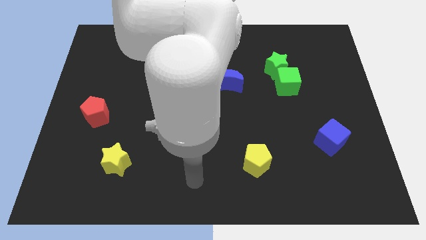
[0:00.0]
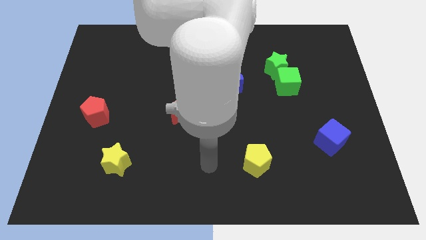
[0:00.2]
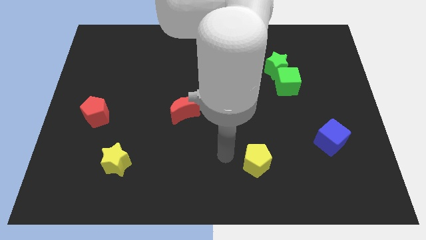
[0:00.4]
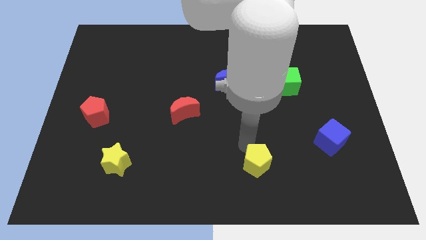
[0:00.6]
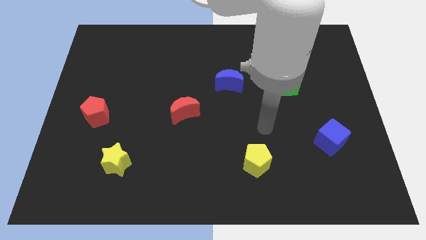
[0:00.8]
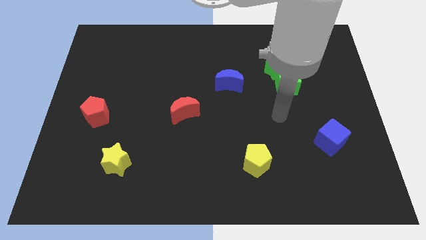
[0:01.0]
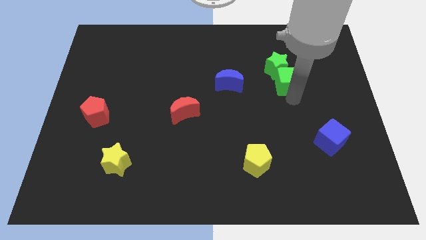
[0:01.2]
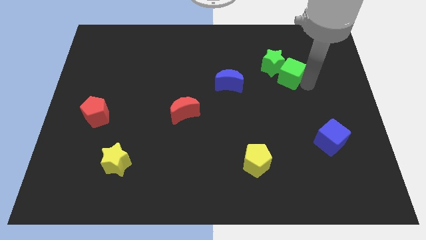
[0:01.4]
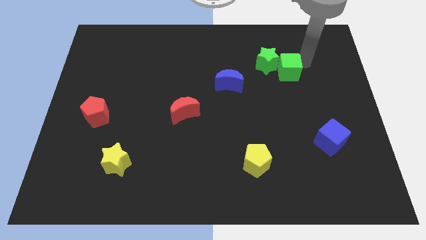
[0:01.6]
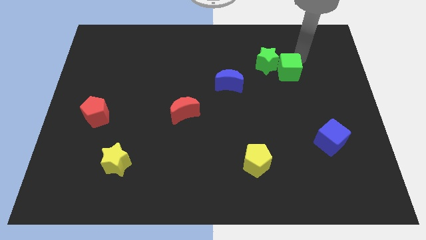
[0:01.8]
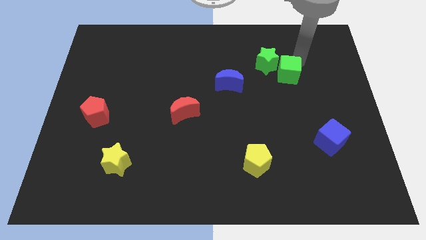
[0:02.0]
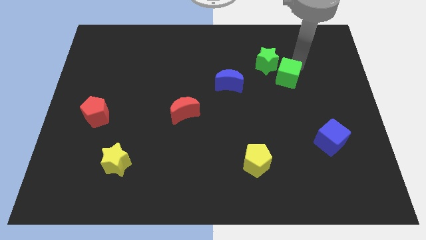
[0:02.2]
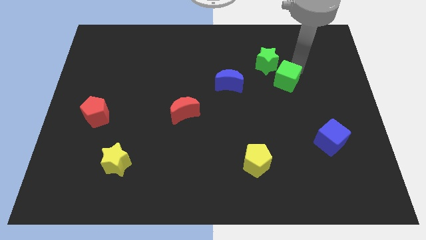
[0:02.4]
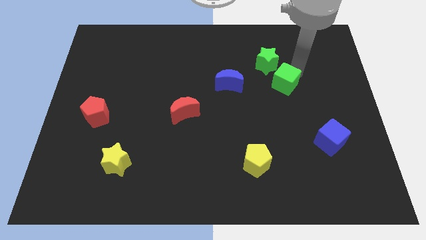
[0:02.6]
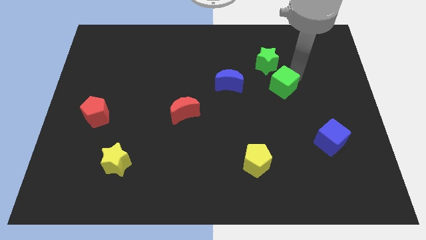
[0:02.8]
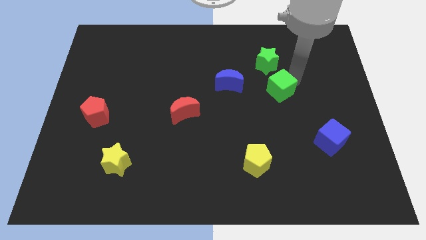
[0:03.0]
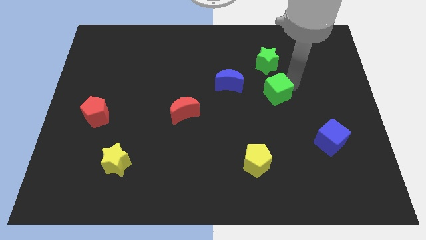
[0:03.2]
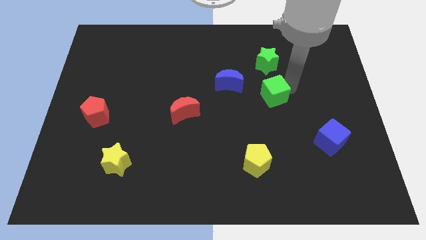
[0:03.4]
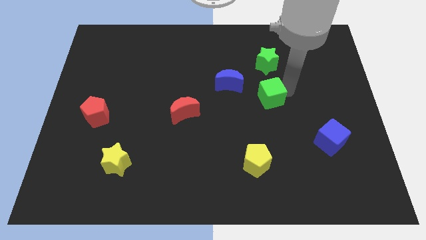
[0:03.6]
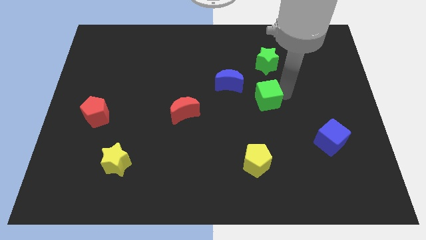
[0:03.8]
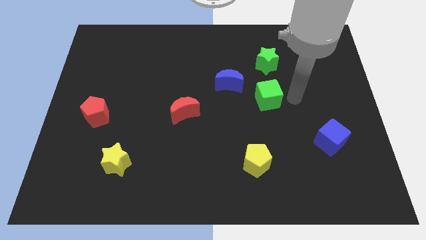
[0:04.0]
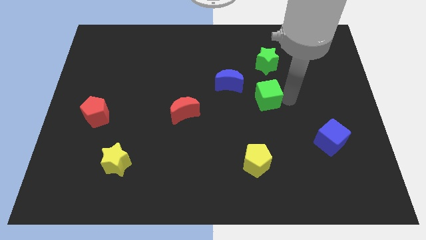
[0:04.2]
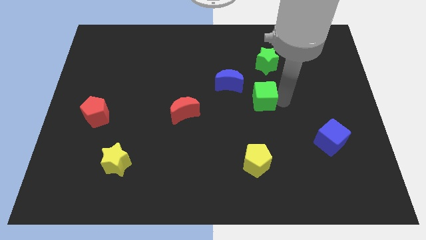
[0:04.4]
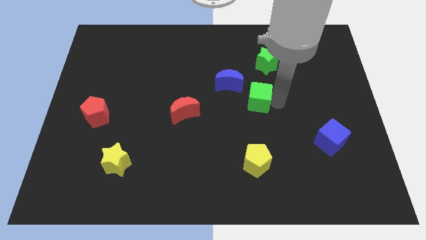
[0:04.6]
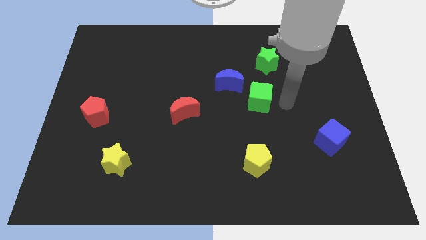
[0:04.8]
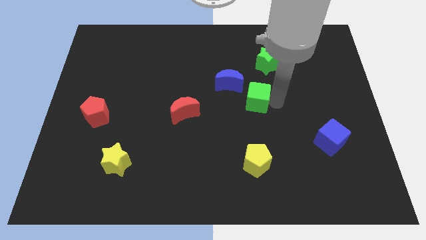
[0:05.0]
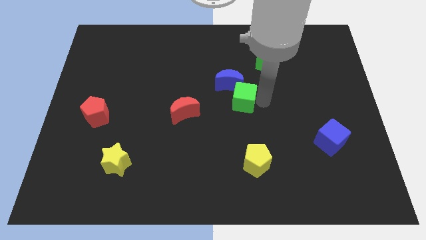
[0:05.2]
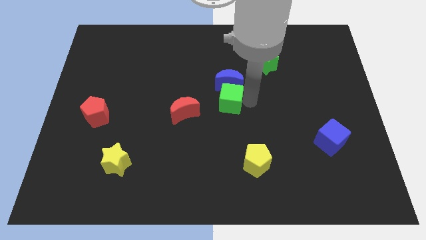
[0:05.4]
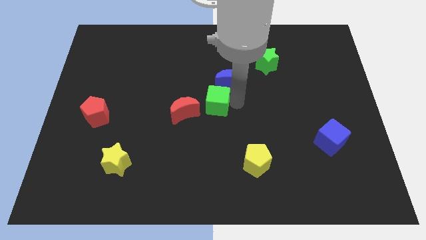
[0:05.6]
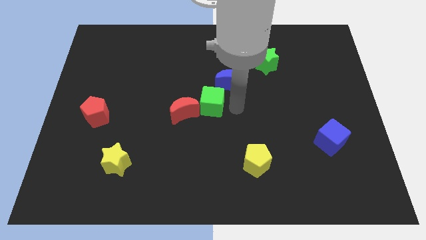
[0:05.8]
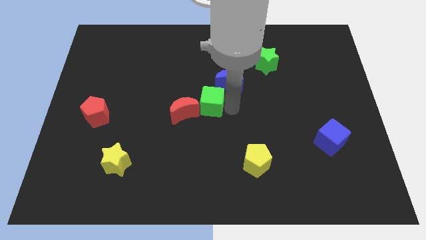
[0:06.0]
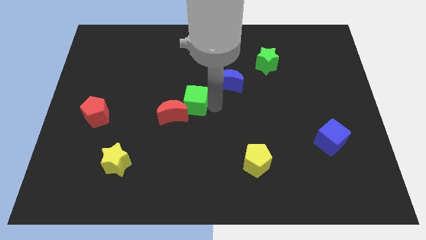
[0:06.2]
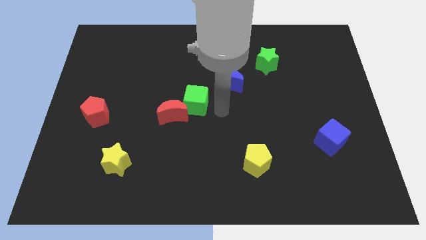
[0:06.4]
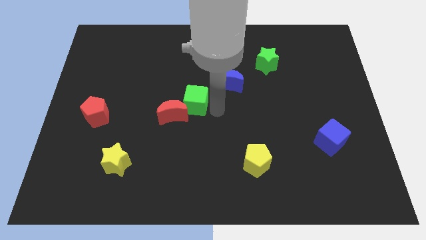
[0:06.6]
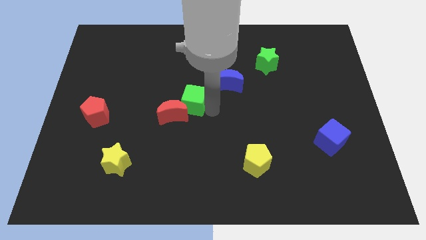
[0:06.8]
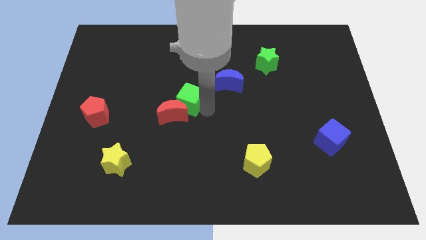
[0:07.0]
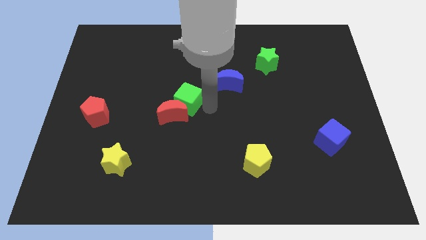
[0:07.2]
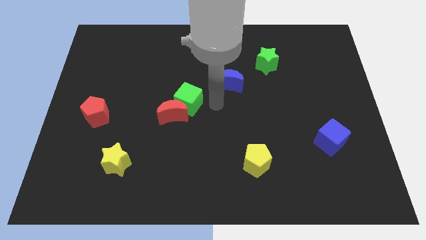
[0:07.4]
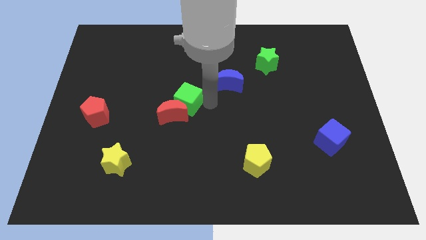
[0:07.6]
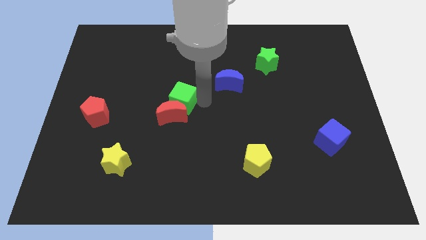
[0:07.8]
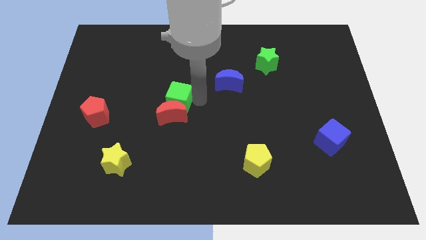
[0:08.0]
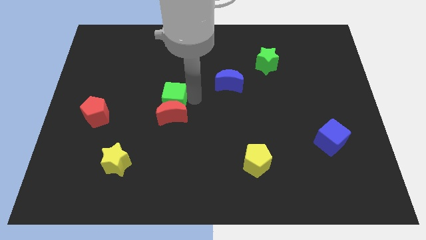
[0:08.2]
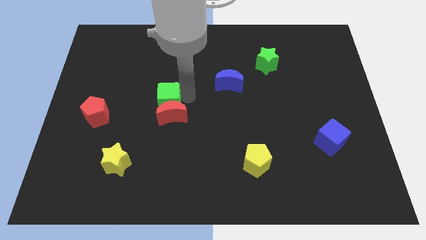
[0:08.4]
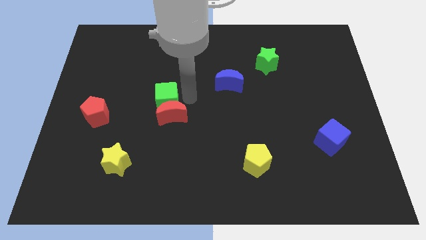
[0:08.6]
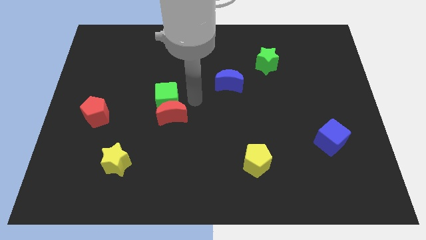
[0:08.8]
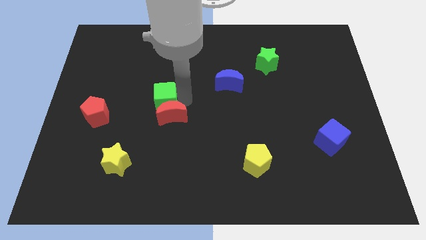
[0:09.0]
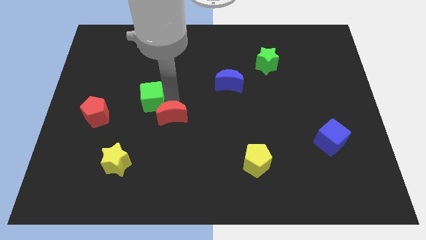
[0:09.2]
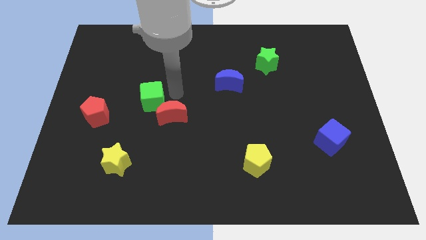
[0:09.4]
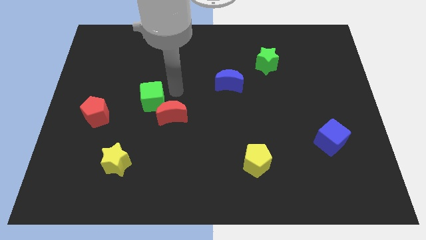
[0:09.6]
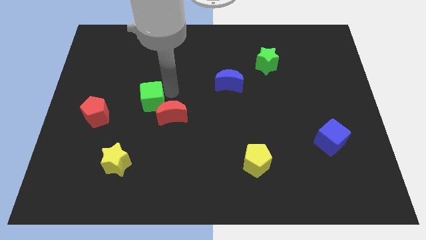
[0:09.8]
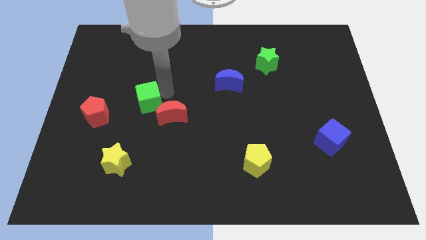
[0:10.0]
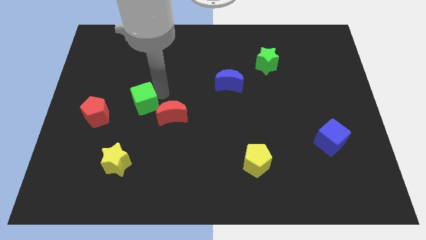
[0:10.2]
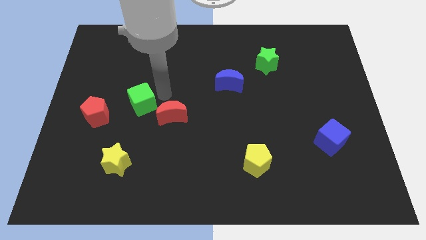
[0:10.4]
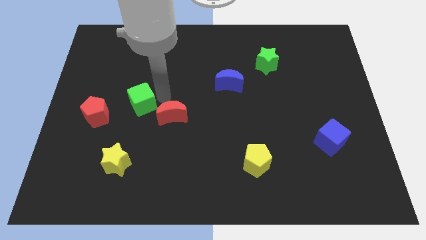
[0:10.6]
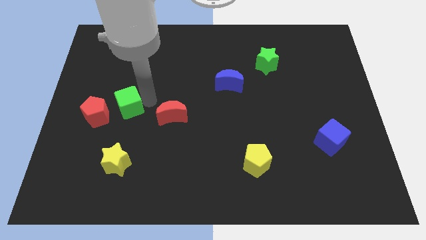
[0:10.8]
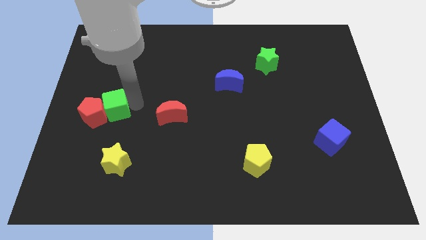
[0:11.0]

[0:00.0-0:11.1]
move the green cube next to the red pentagon

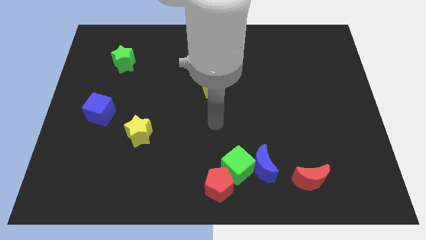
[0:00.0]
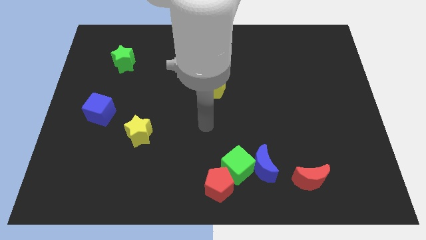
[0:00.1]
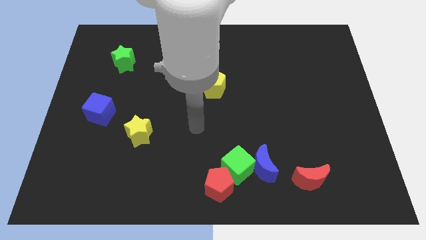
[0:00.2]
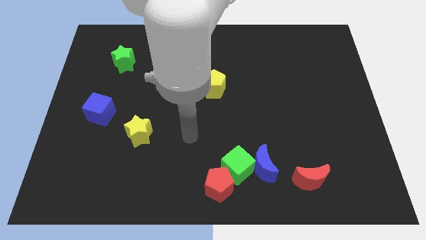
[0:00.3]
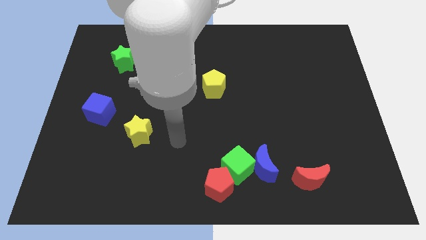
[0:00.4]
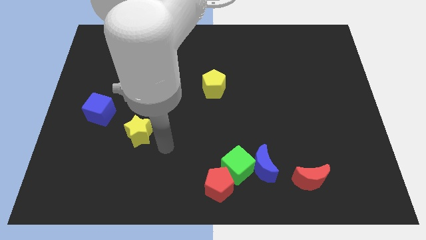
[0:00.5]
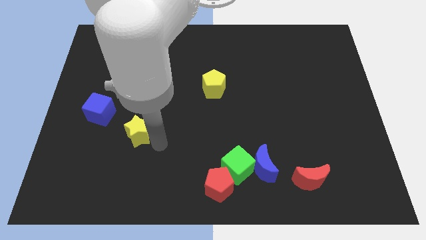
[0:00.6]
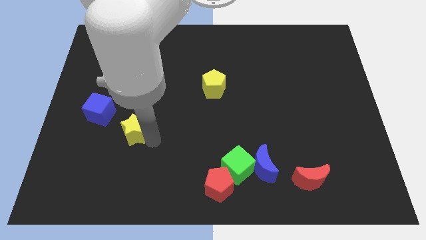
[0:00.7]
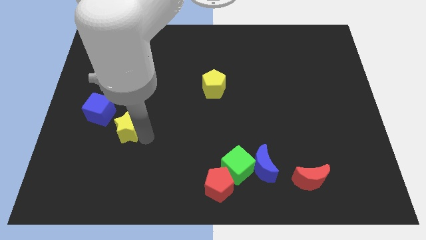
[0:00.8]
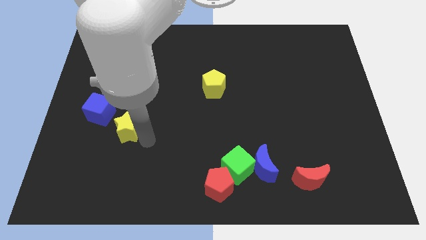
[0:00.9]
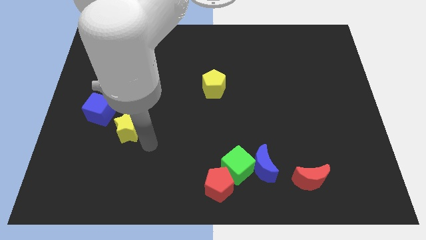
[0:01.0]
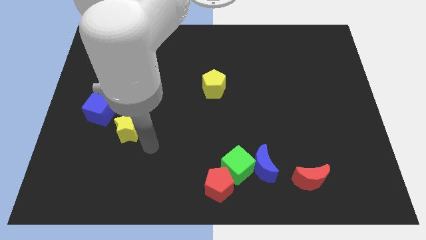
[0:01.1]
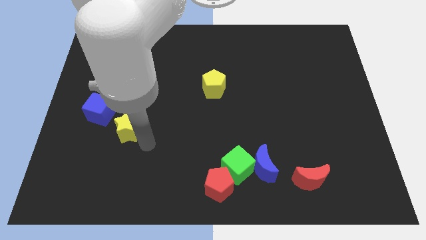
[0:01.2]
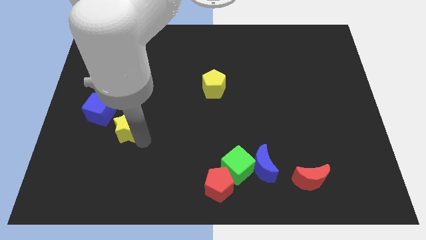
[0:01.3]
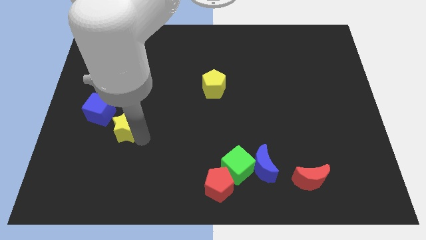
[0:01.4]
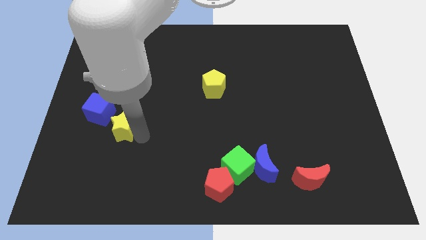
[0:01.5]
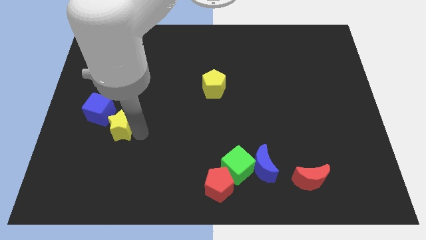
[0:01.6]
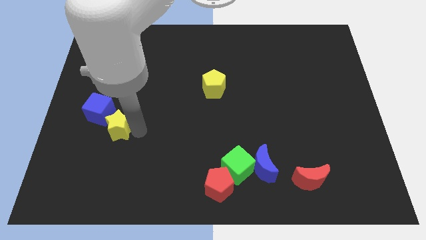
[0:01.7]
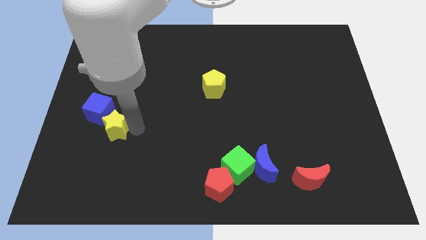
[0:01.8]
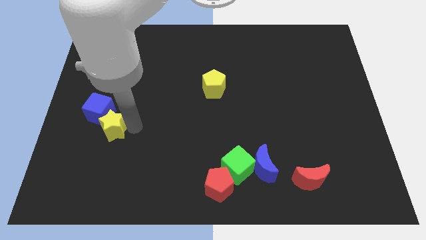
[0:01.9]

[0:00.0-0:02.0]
put the yellow star to the blue cube
